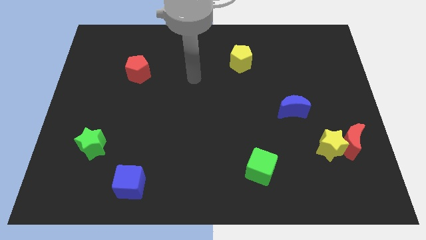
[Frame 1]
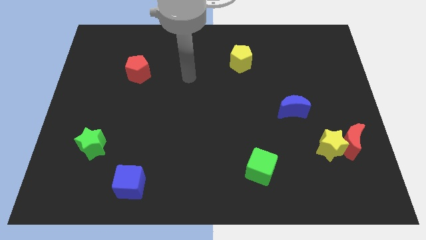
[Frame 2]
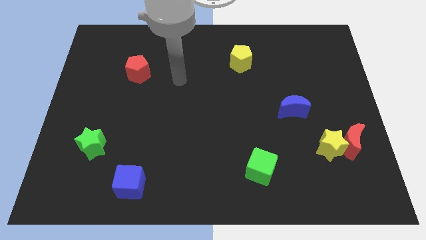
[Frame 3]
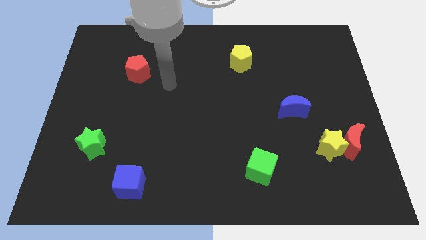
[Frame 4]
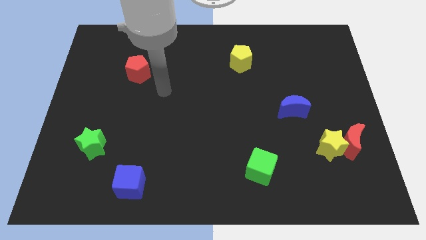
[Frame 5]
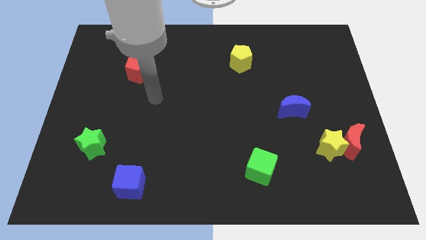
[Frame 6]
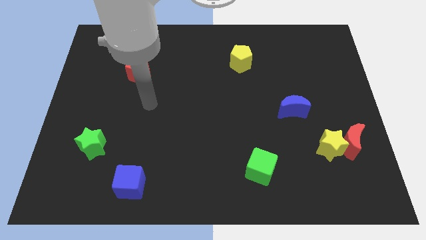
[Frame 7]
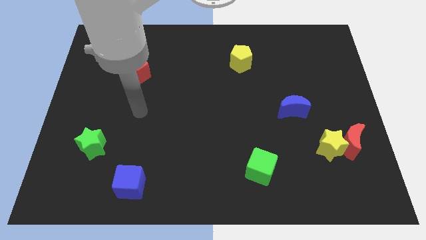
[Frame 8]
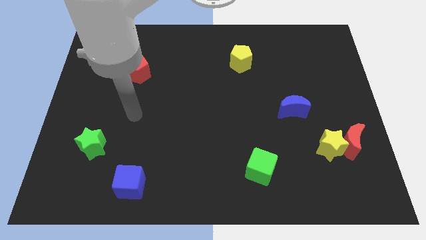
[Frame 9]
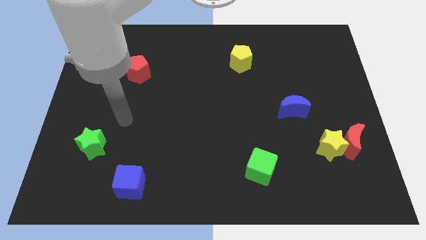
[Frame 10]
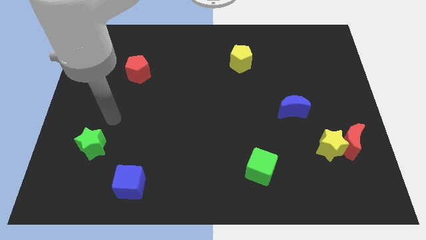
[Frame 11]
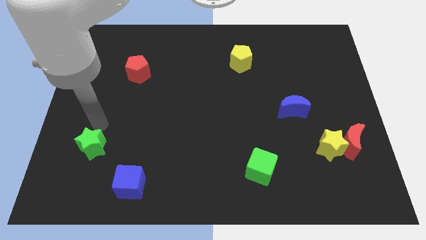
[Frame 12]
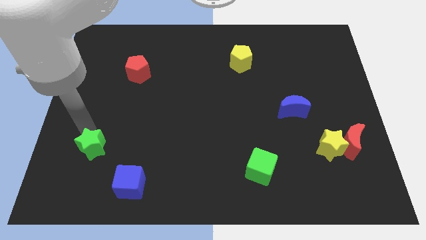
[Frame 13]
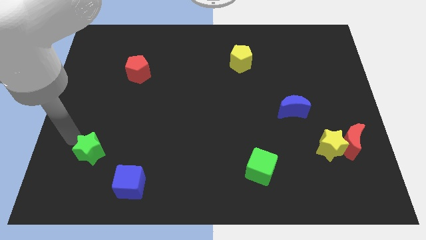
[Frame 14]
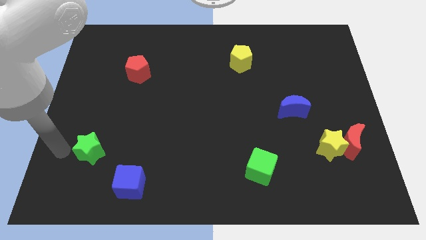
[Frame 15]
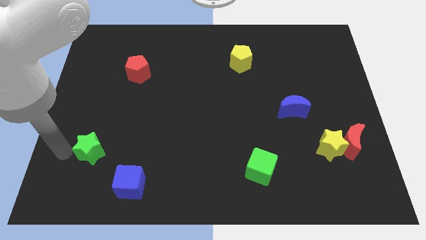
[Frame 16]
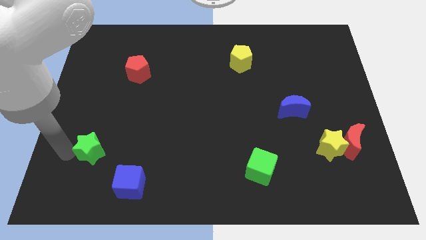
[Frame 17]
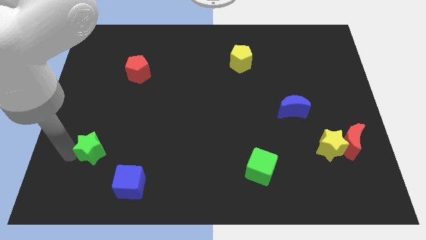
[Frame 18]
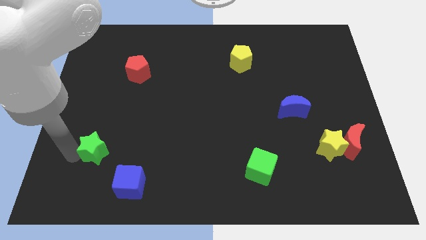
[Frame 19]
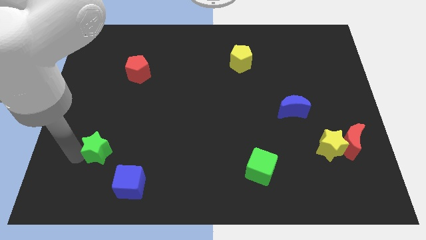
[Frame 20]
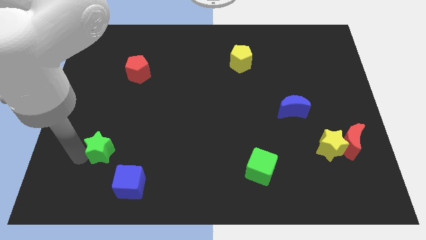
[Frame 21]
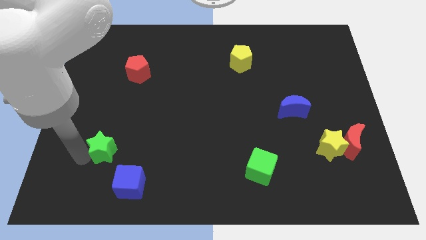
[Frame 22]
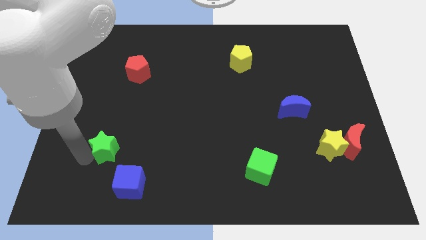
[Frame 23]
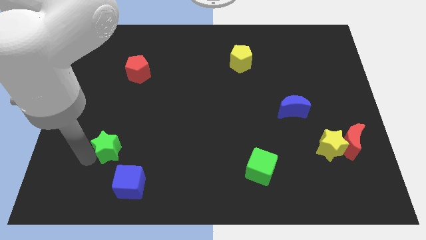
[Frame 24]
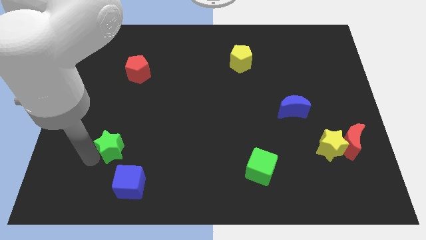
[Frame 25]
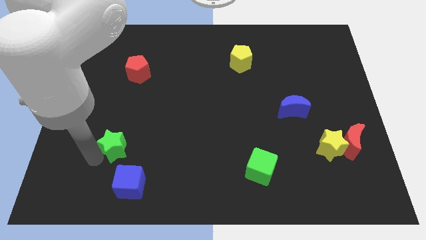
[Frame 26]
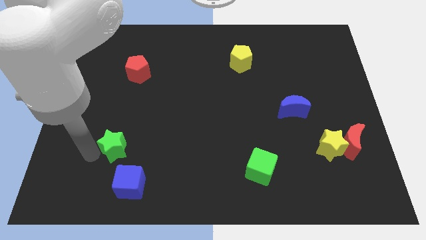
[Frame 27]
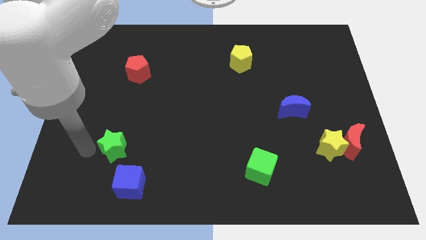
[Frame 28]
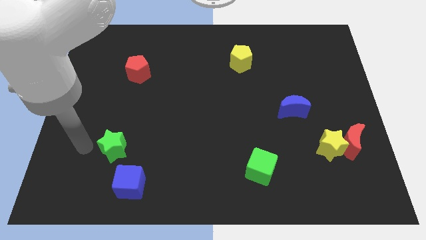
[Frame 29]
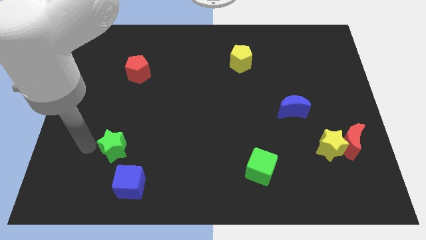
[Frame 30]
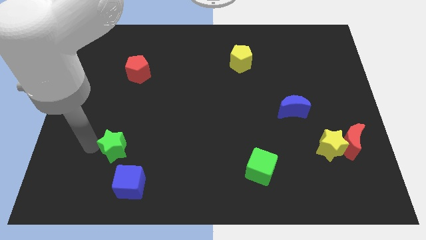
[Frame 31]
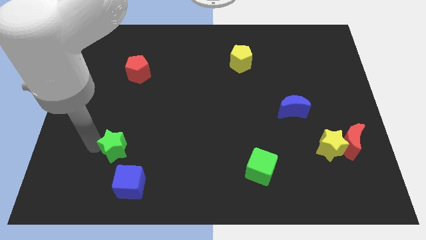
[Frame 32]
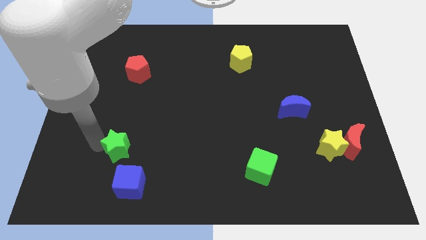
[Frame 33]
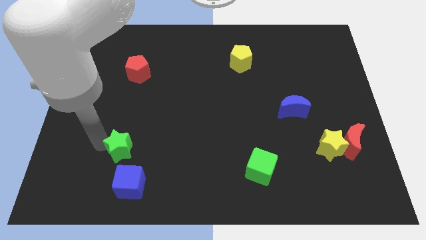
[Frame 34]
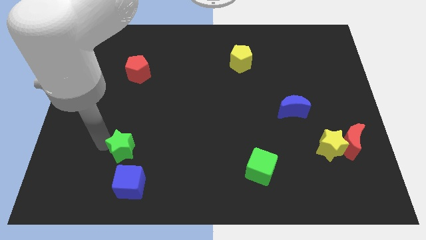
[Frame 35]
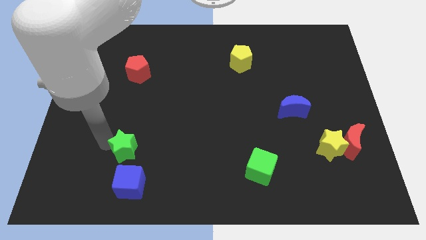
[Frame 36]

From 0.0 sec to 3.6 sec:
slightly push the green star to the right

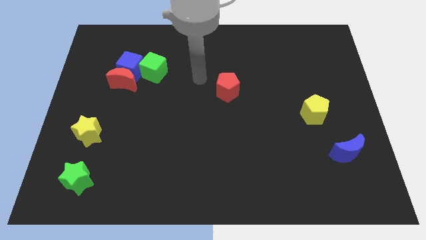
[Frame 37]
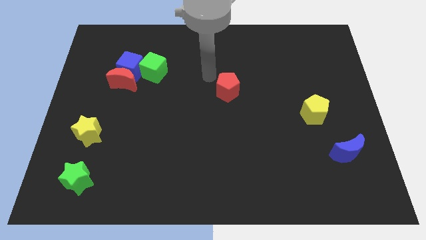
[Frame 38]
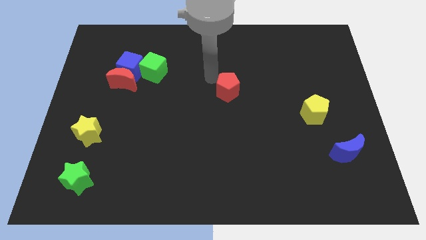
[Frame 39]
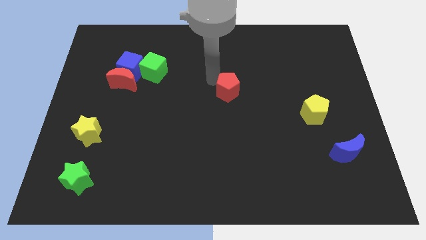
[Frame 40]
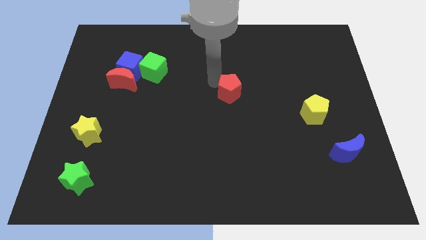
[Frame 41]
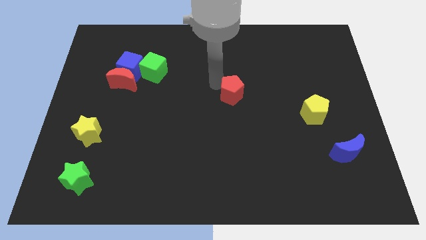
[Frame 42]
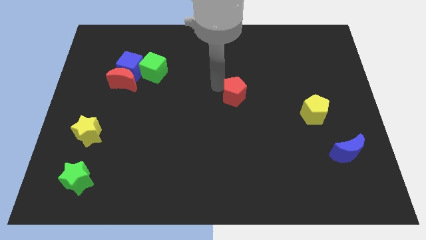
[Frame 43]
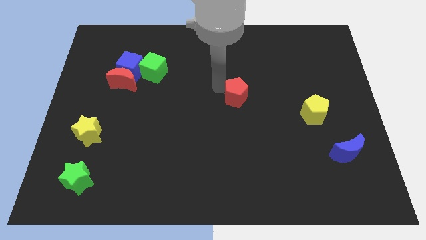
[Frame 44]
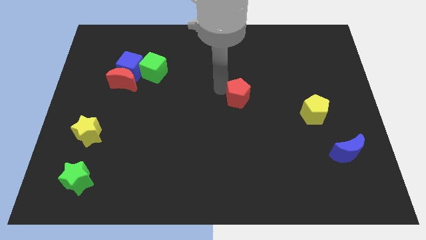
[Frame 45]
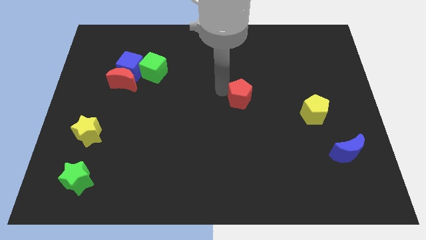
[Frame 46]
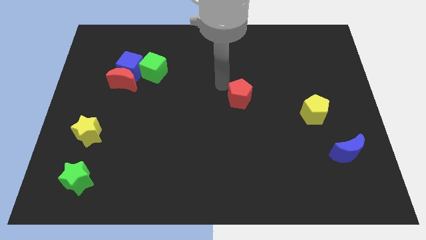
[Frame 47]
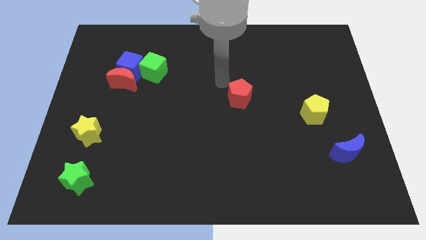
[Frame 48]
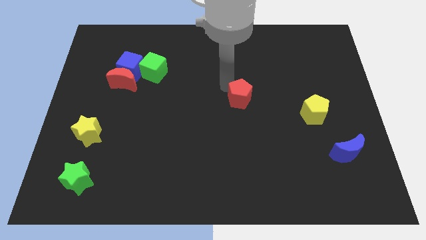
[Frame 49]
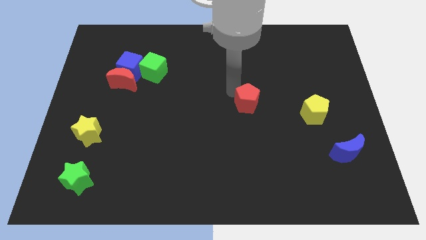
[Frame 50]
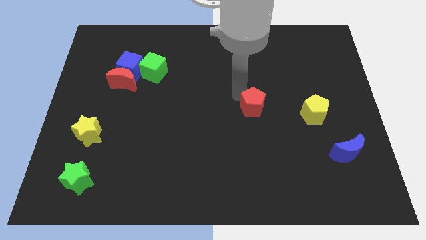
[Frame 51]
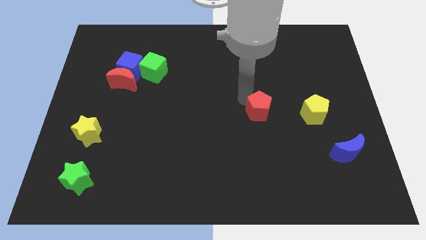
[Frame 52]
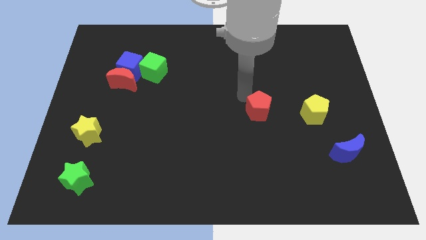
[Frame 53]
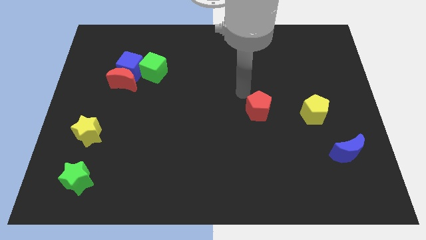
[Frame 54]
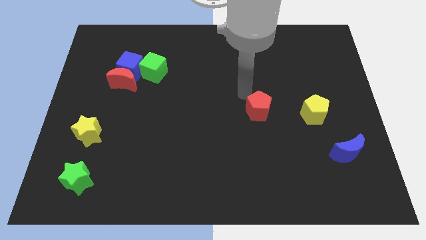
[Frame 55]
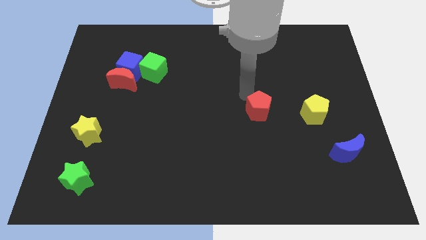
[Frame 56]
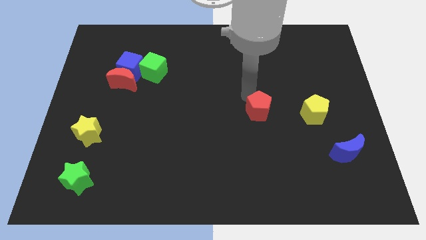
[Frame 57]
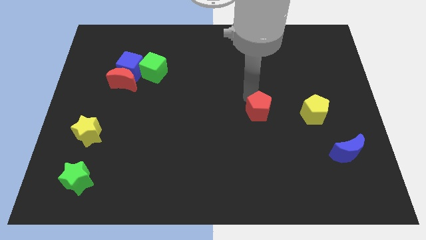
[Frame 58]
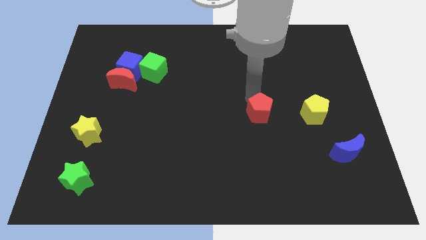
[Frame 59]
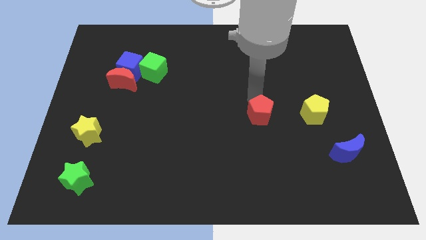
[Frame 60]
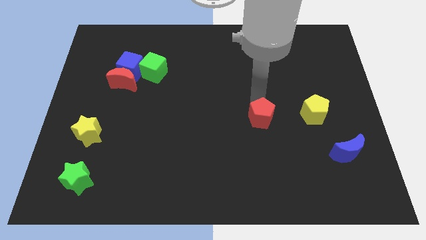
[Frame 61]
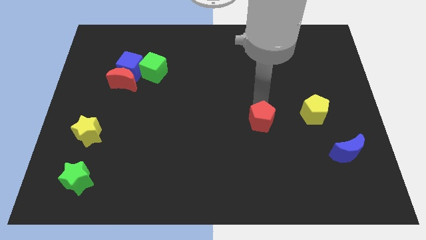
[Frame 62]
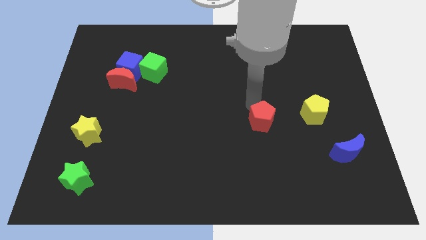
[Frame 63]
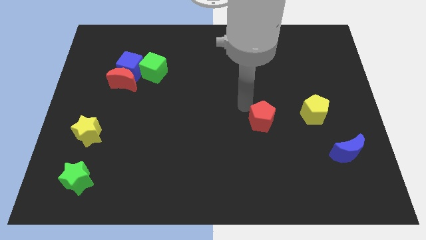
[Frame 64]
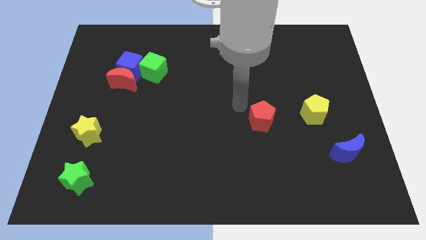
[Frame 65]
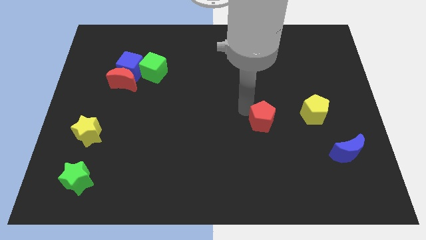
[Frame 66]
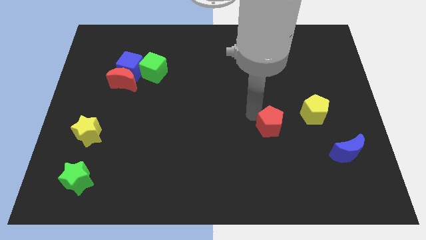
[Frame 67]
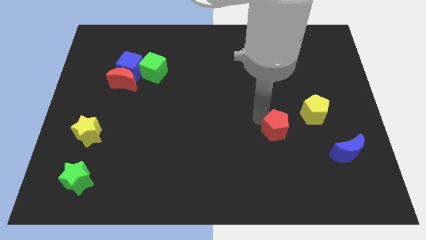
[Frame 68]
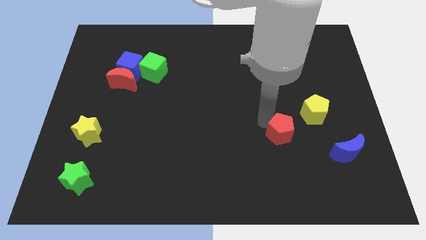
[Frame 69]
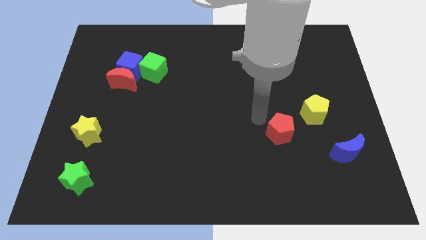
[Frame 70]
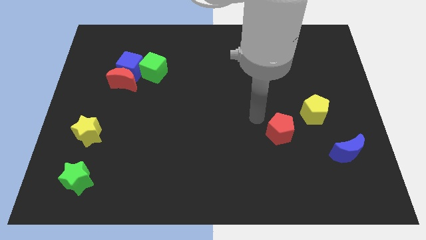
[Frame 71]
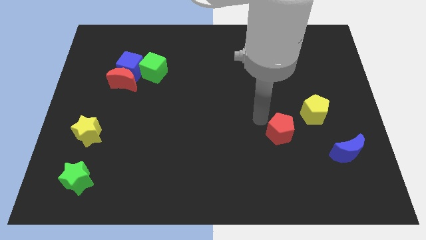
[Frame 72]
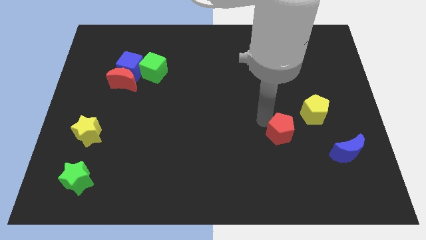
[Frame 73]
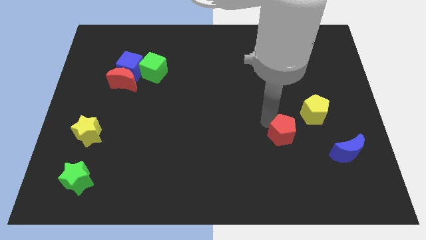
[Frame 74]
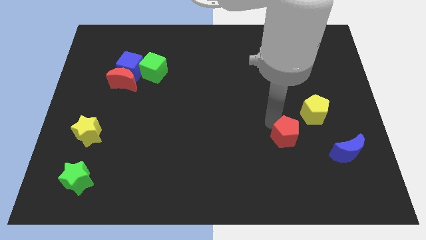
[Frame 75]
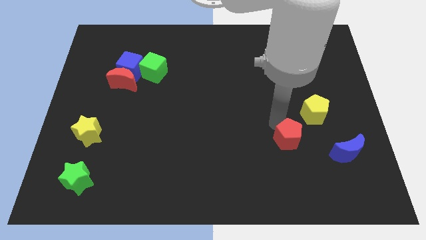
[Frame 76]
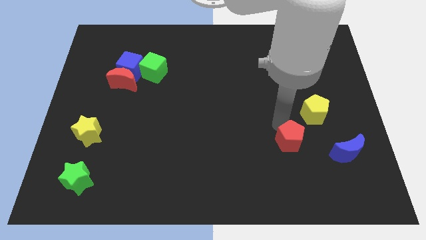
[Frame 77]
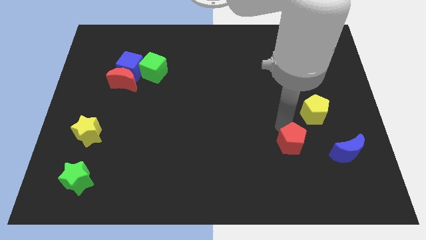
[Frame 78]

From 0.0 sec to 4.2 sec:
move the red pentagon diagonally downwards and right
